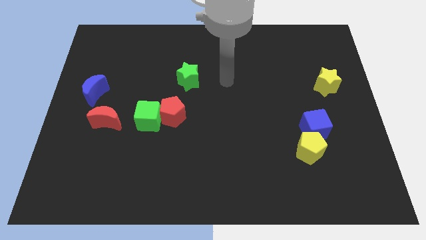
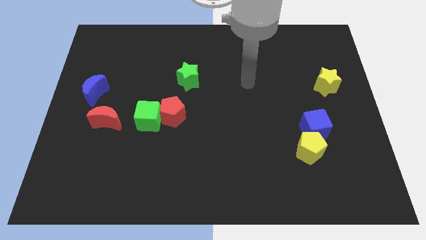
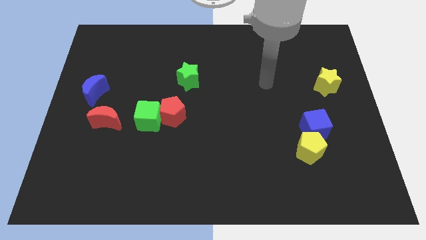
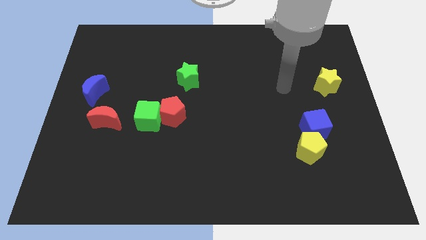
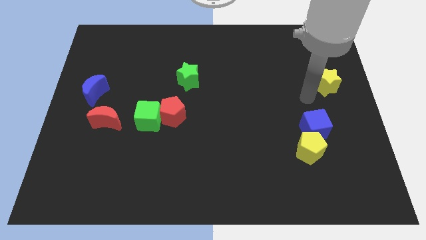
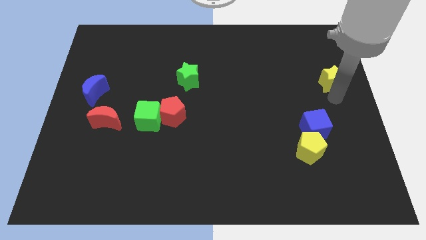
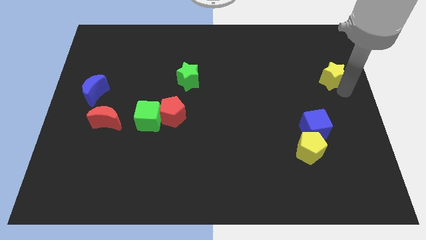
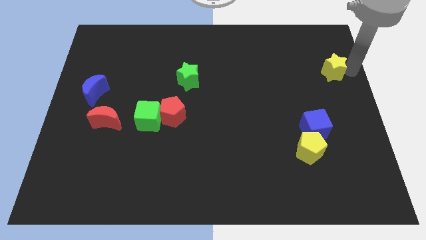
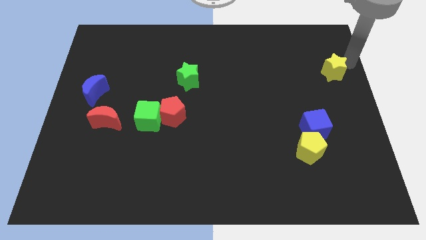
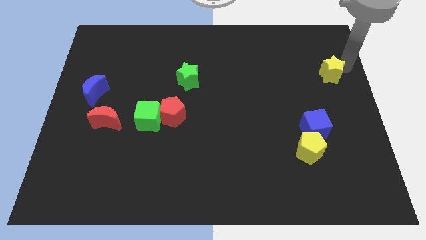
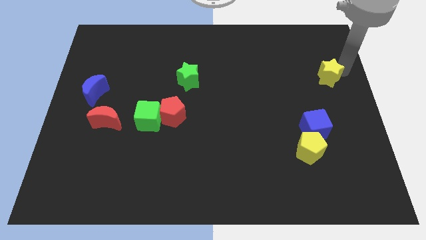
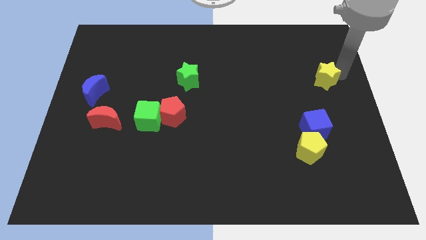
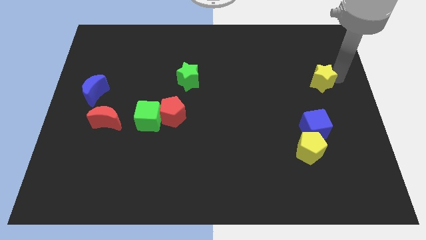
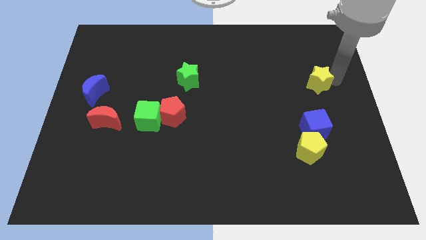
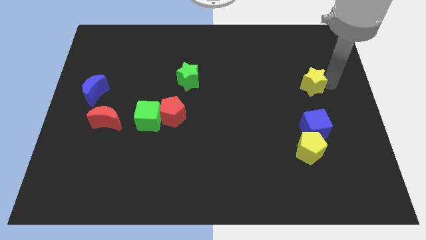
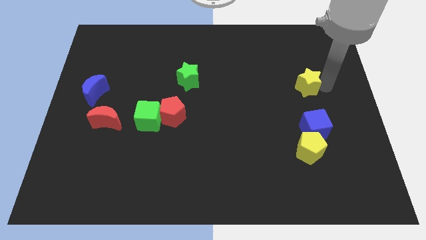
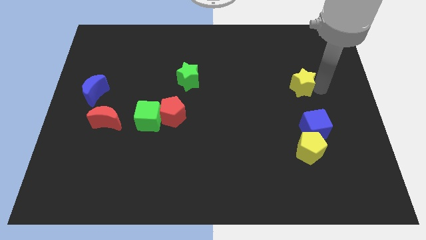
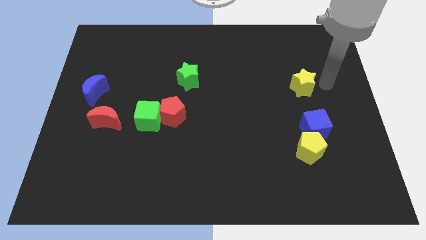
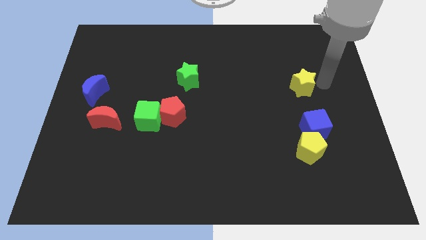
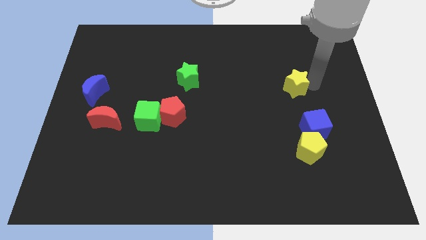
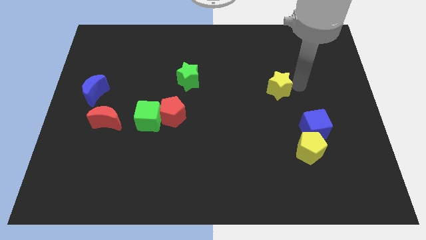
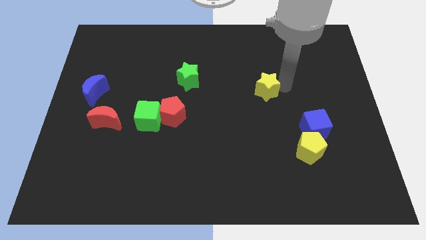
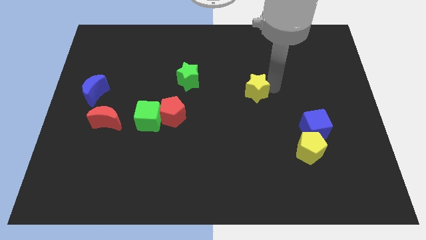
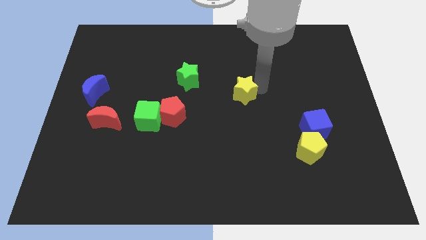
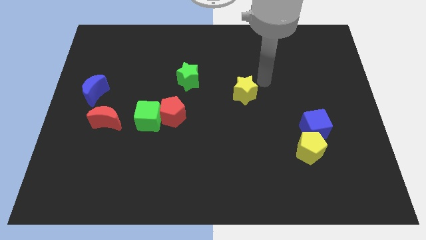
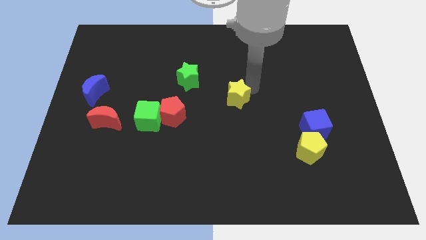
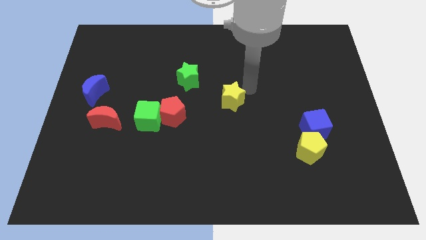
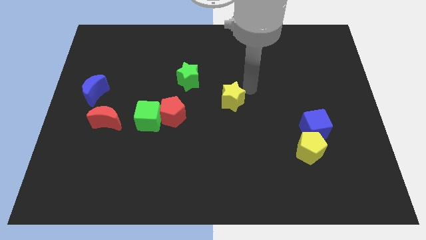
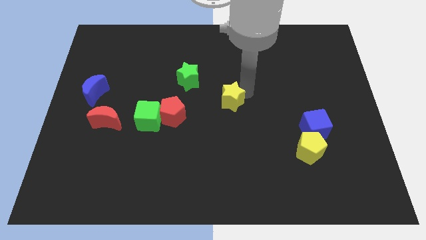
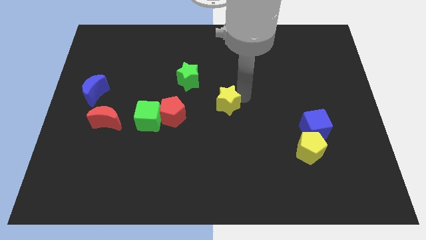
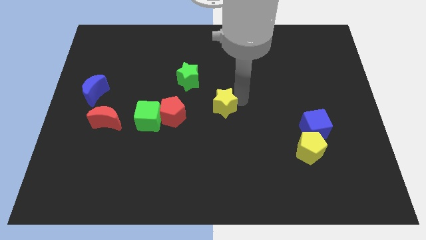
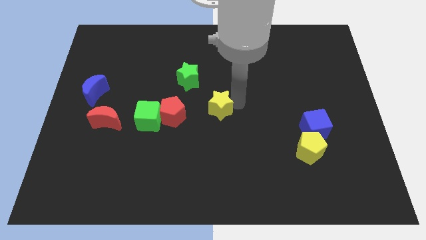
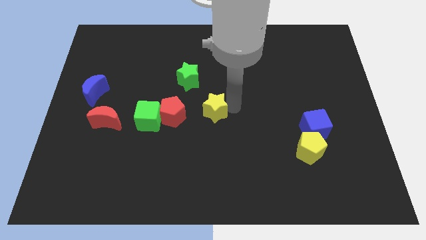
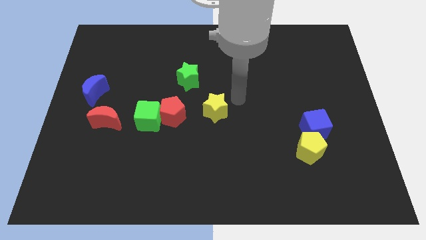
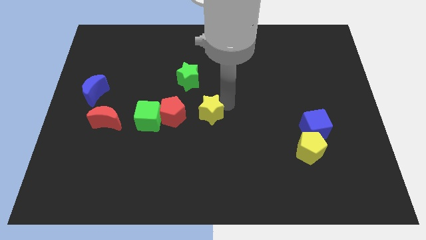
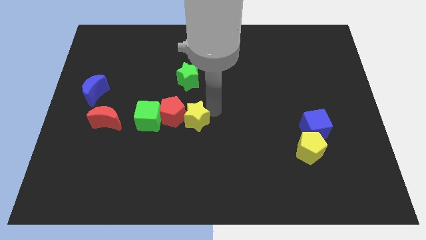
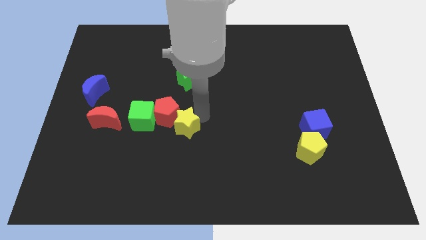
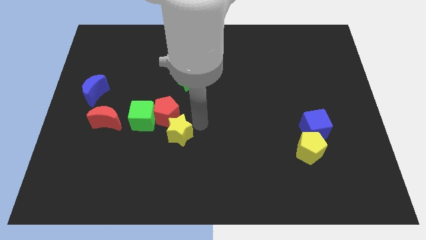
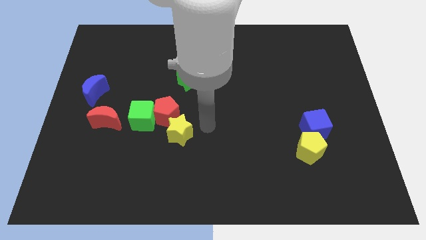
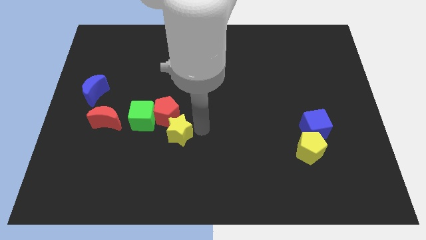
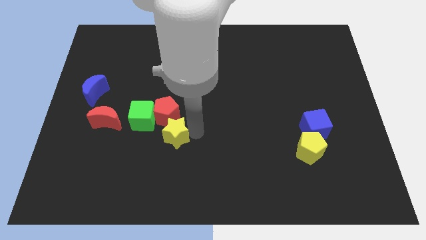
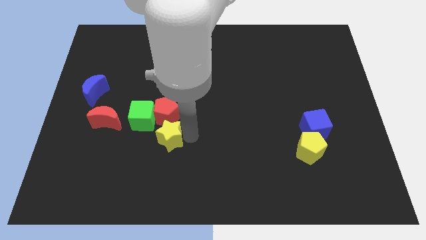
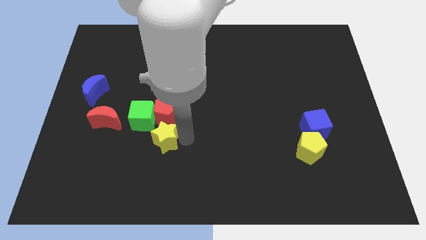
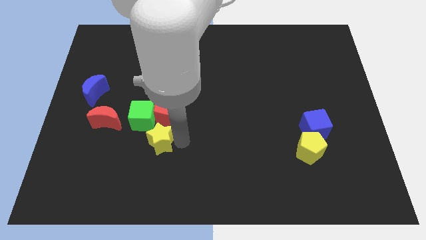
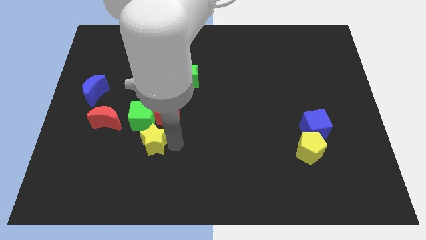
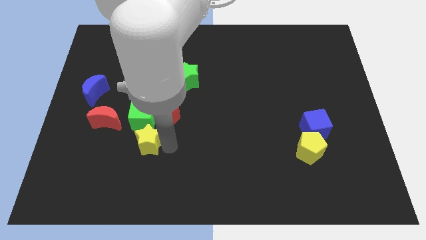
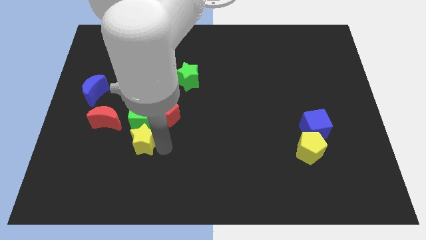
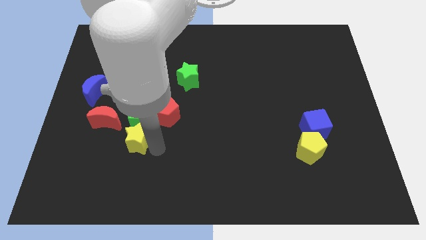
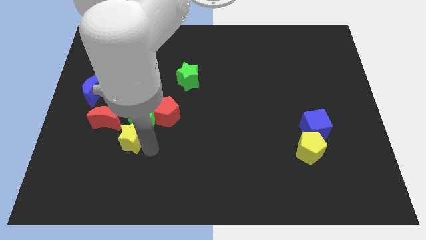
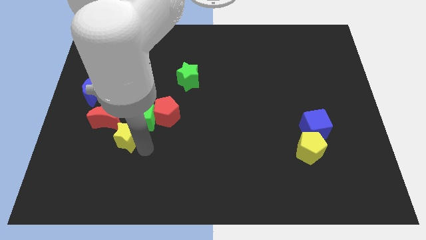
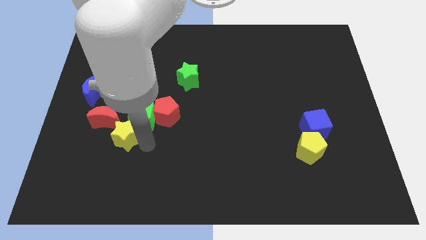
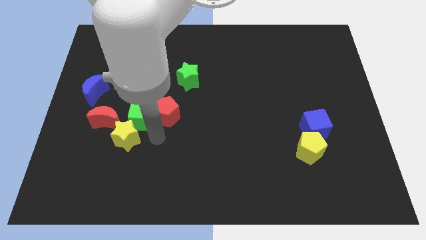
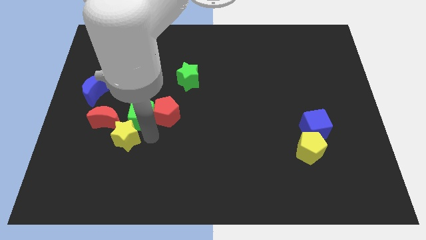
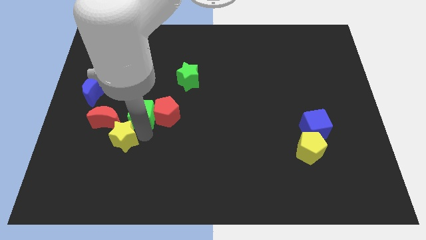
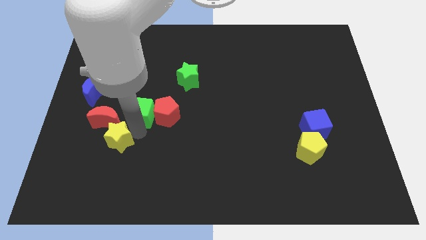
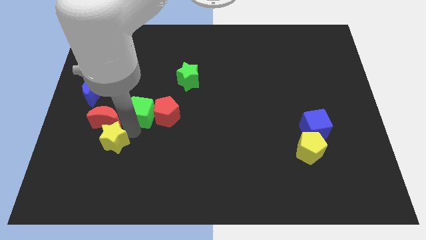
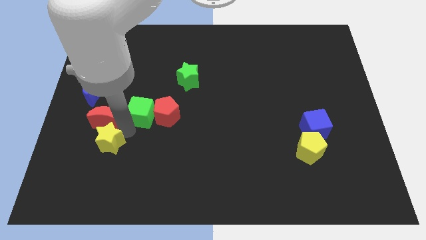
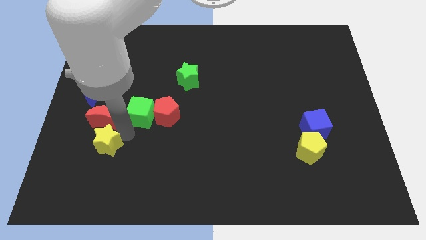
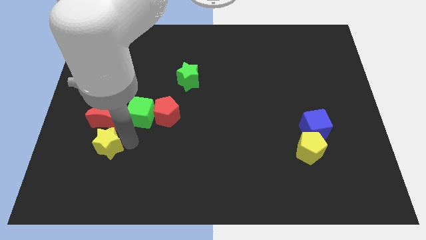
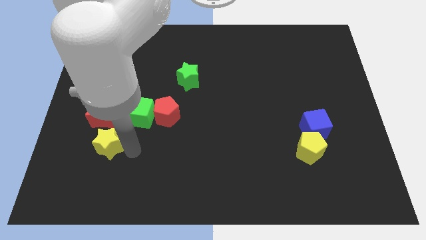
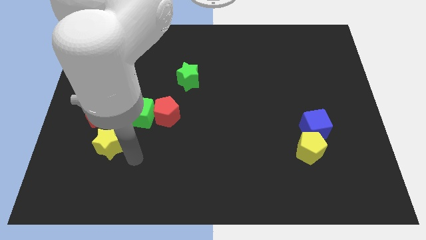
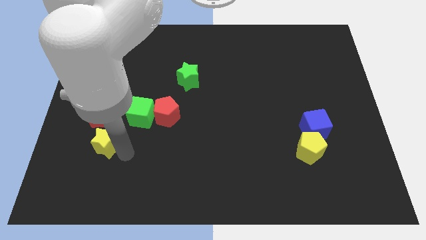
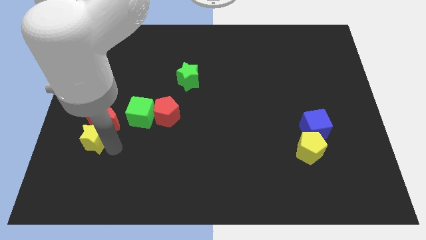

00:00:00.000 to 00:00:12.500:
move the yellow star below the blue moon
